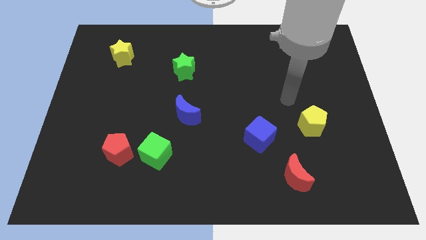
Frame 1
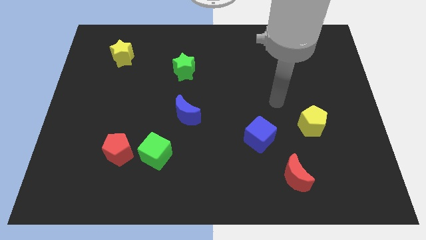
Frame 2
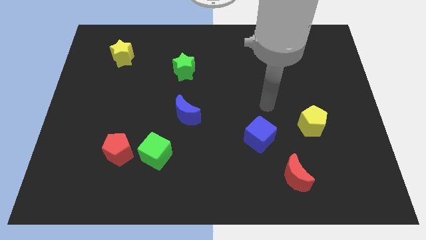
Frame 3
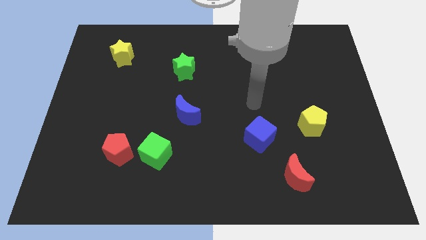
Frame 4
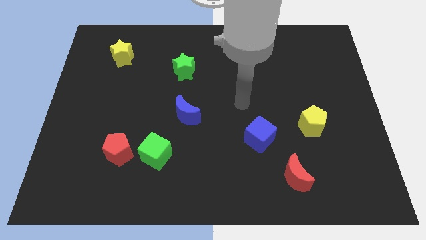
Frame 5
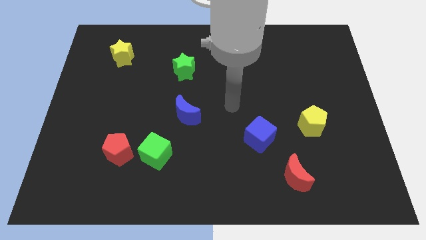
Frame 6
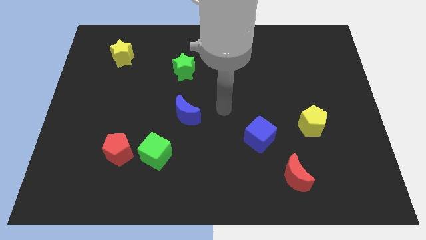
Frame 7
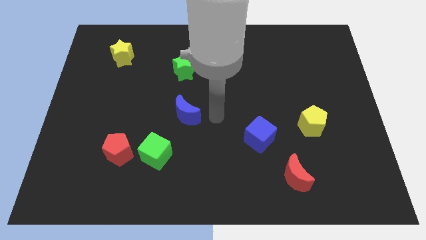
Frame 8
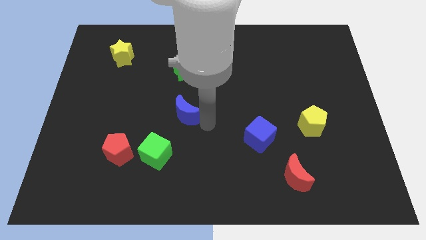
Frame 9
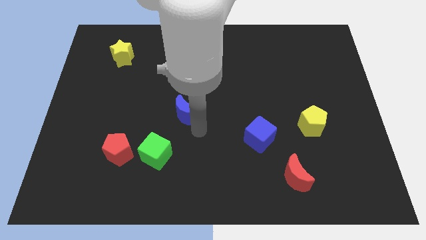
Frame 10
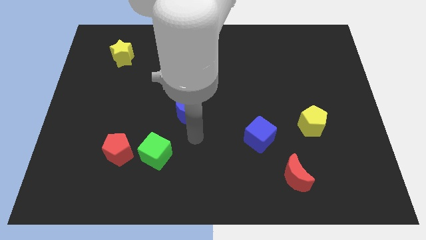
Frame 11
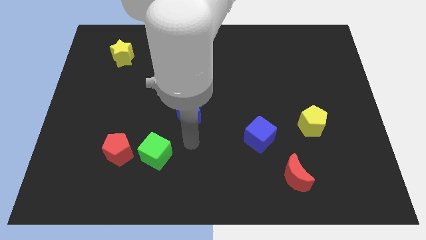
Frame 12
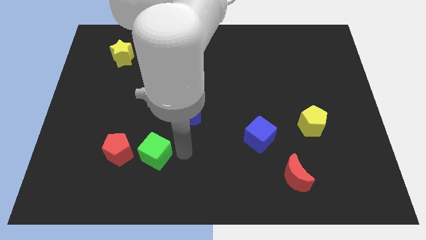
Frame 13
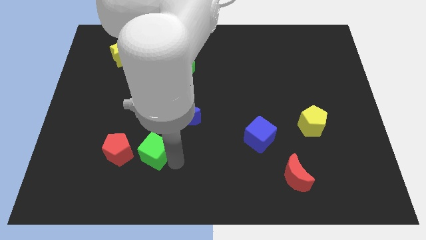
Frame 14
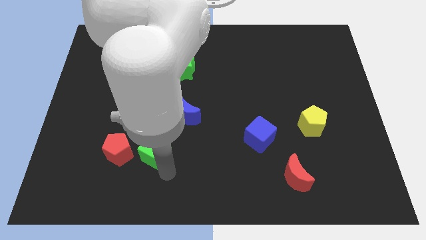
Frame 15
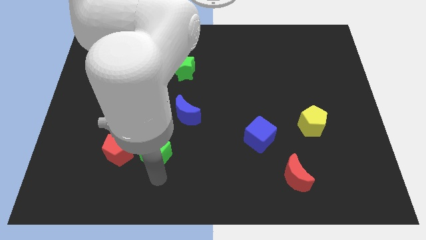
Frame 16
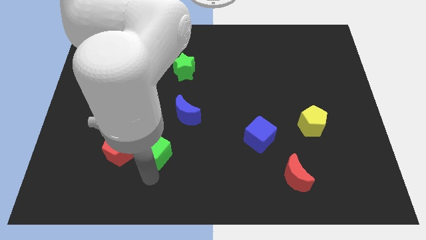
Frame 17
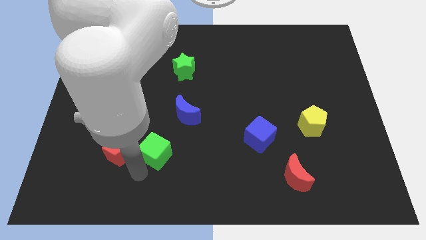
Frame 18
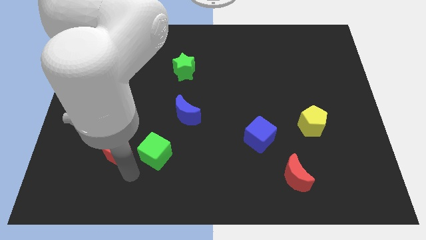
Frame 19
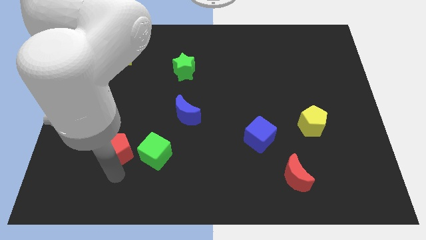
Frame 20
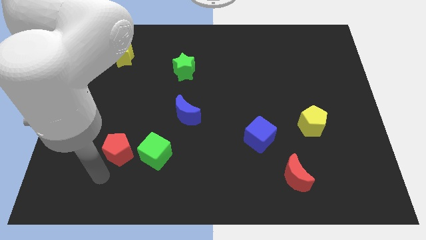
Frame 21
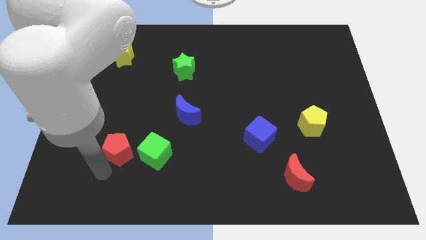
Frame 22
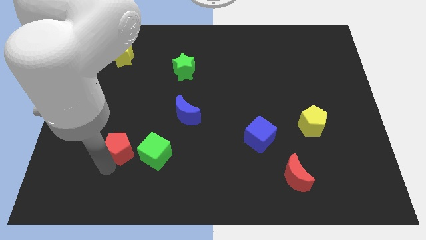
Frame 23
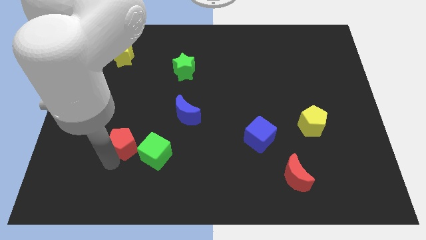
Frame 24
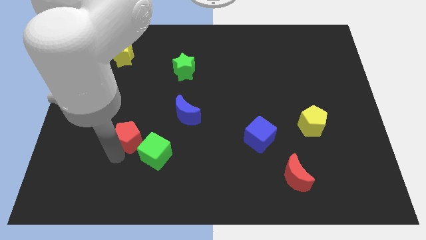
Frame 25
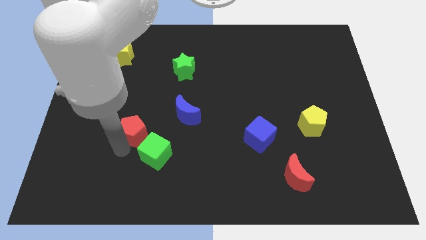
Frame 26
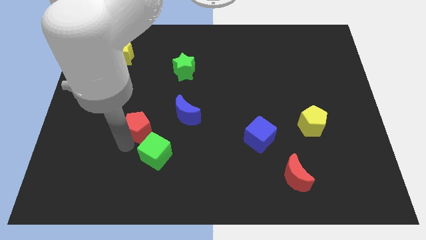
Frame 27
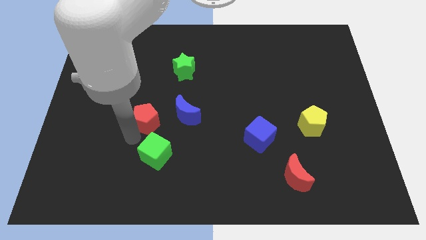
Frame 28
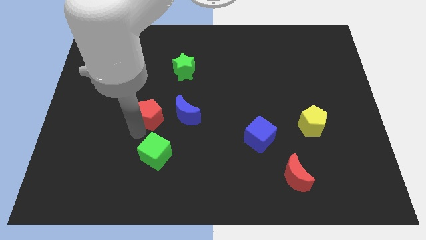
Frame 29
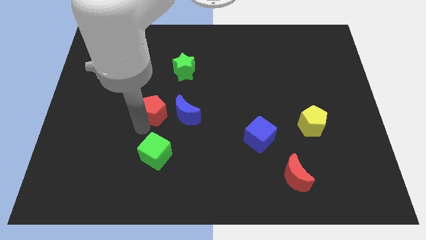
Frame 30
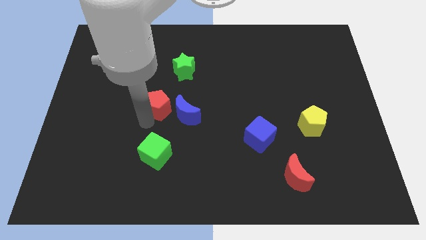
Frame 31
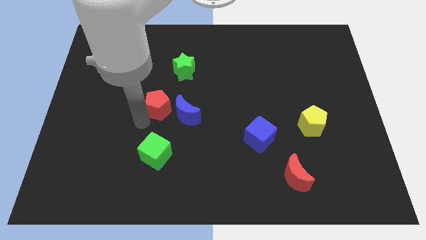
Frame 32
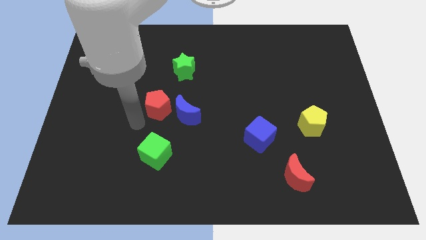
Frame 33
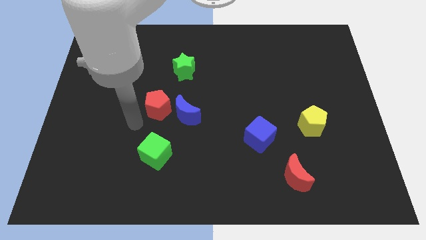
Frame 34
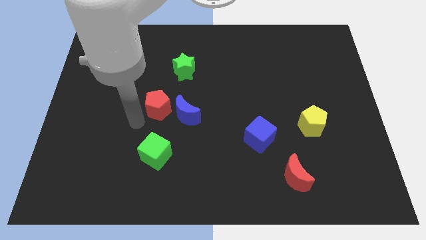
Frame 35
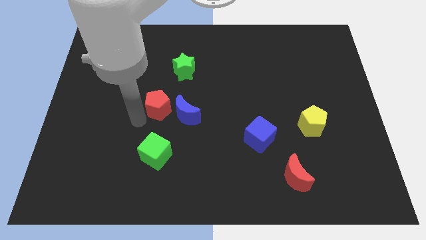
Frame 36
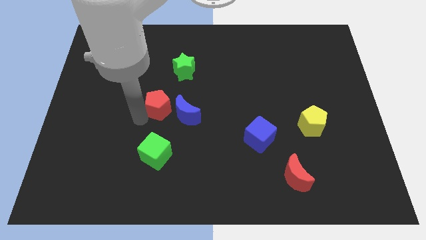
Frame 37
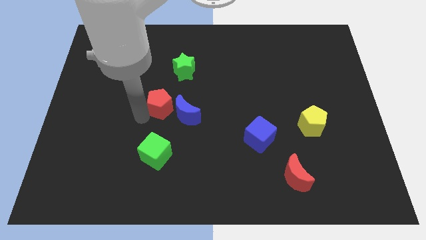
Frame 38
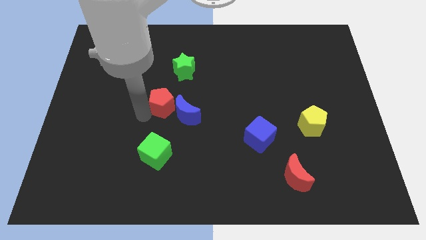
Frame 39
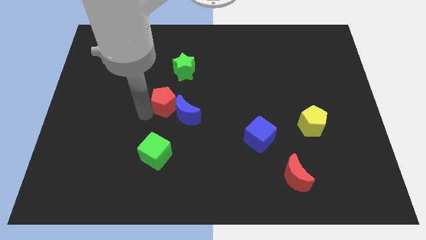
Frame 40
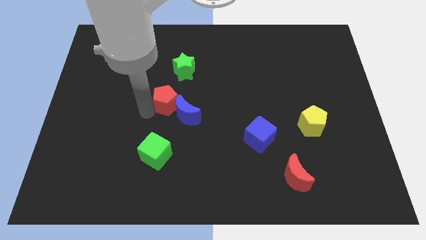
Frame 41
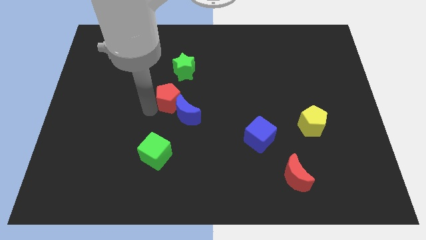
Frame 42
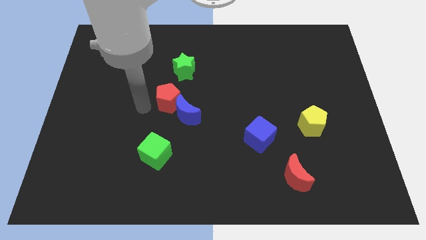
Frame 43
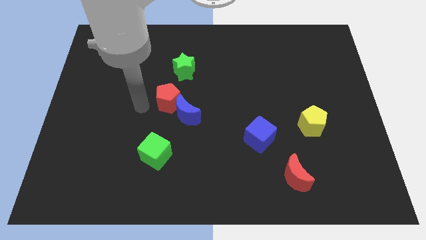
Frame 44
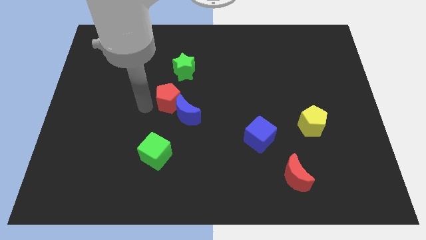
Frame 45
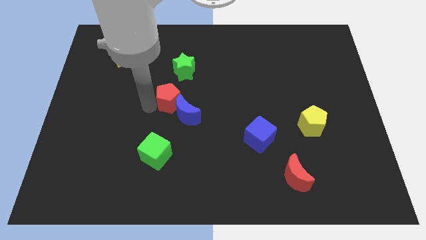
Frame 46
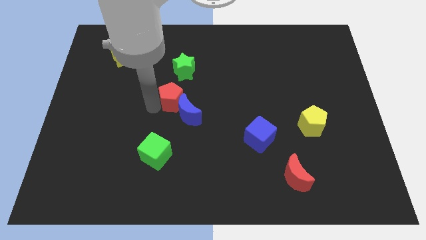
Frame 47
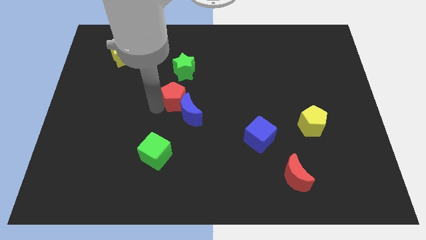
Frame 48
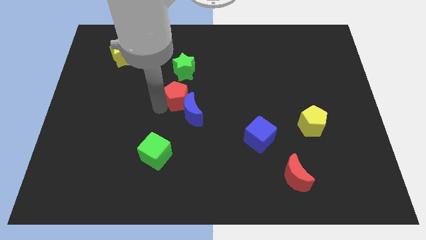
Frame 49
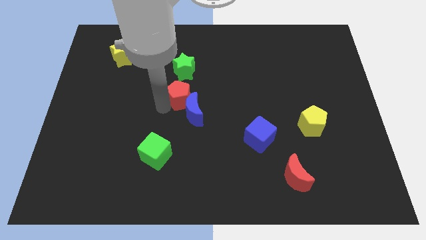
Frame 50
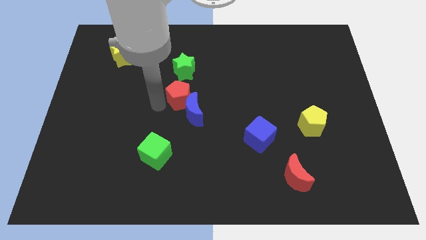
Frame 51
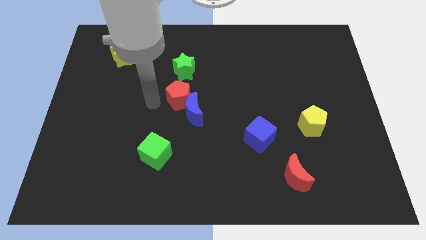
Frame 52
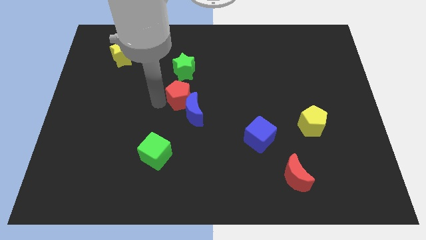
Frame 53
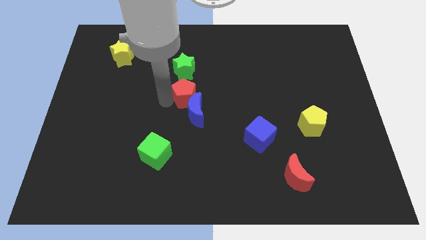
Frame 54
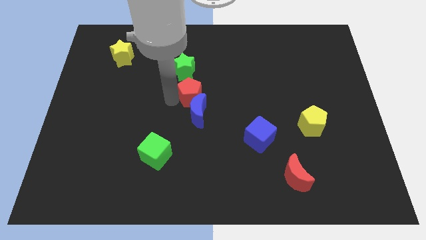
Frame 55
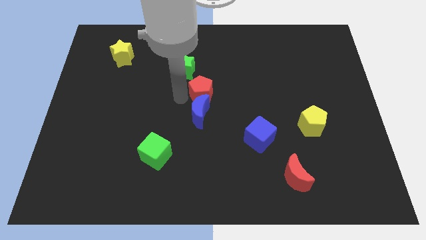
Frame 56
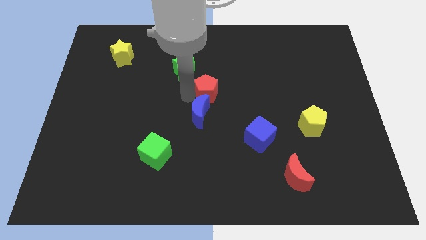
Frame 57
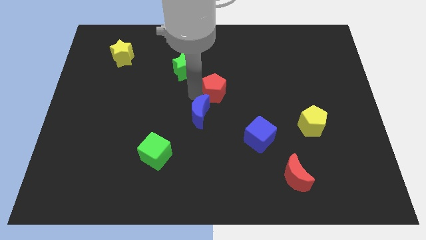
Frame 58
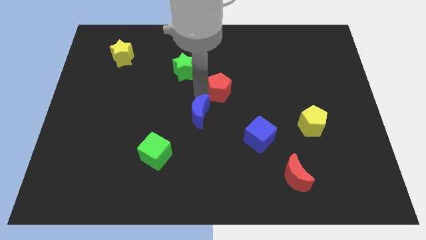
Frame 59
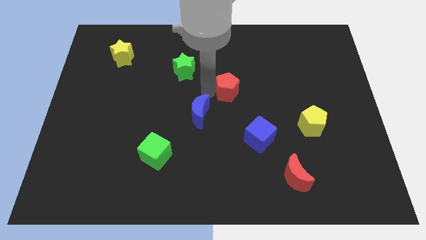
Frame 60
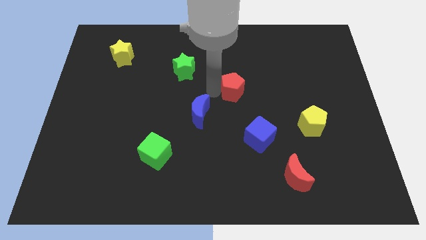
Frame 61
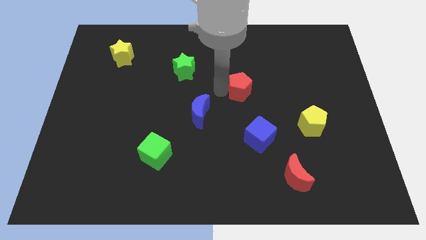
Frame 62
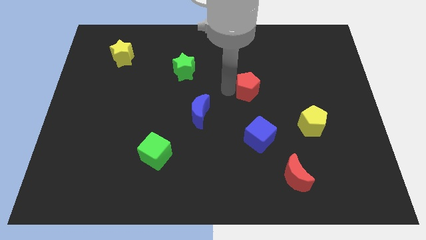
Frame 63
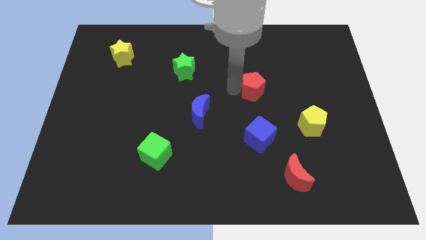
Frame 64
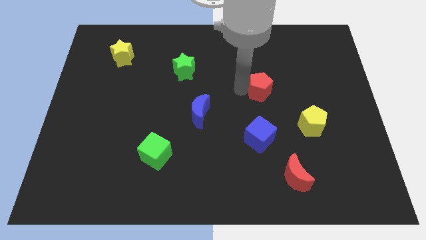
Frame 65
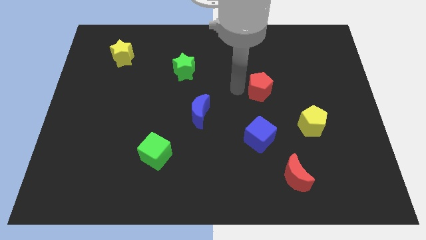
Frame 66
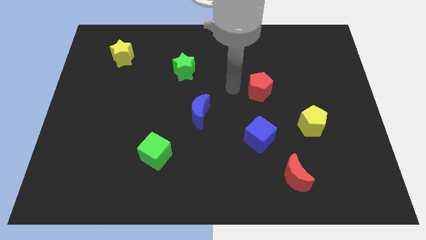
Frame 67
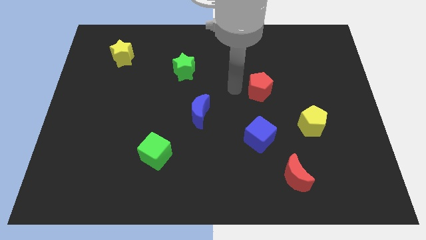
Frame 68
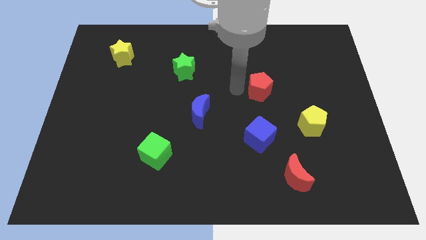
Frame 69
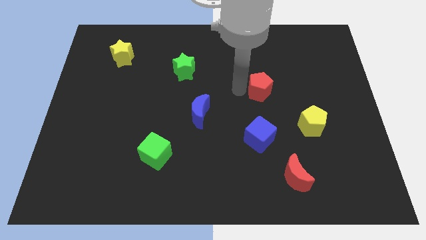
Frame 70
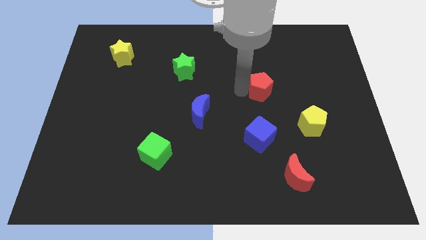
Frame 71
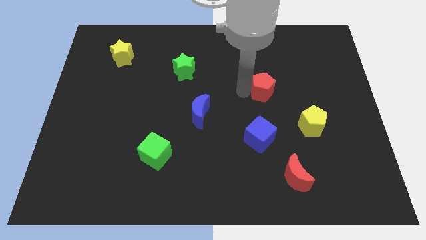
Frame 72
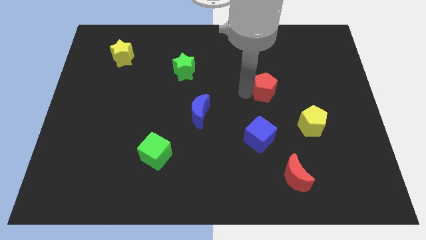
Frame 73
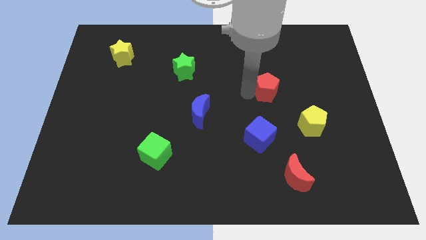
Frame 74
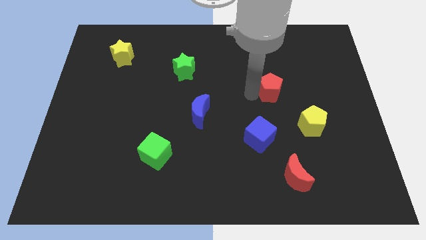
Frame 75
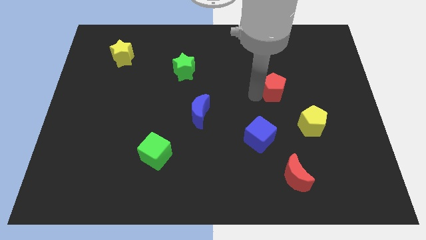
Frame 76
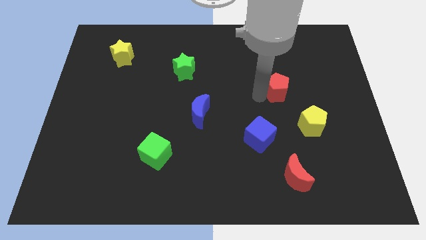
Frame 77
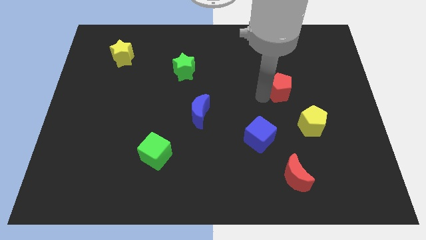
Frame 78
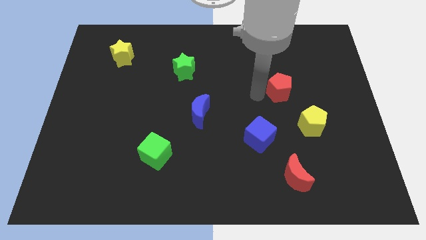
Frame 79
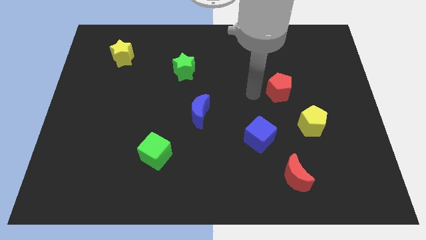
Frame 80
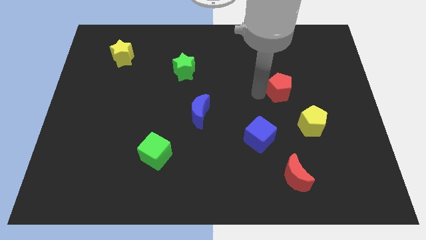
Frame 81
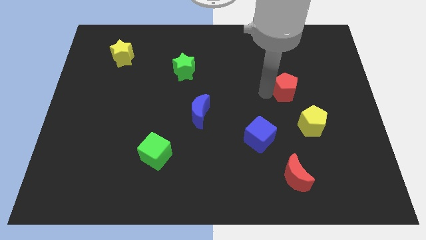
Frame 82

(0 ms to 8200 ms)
move the red pentagon to the top of the yellow pentagon
